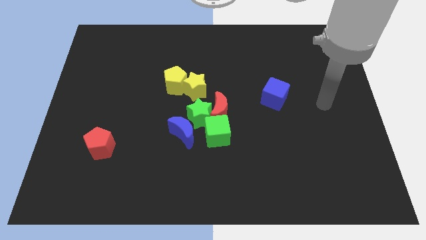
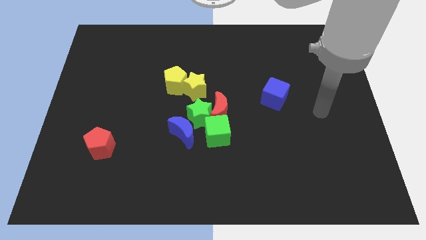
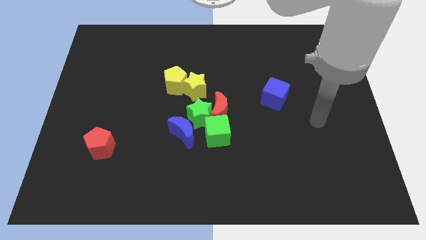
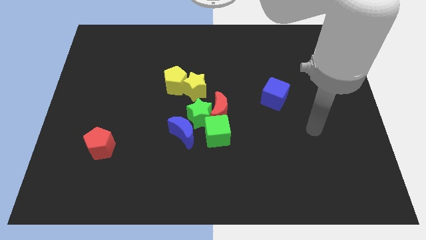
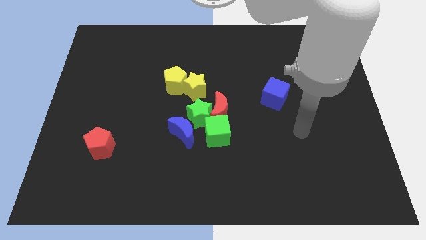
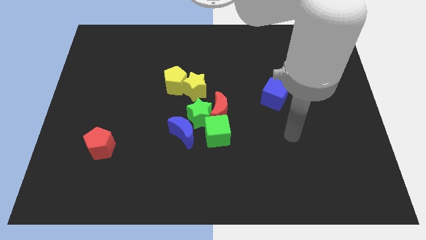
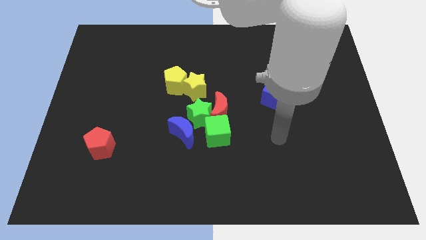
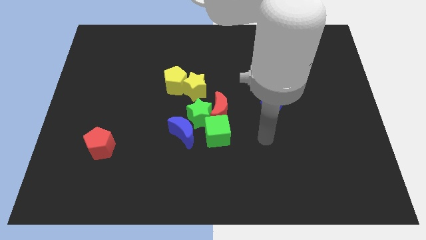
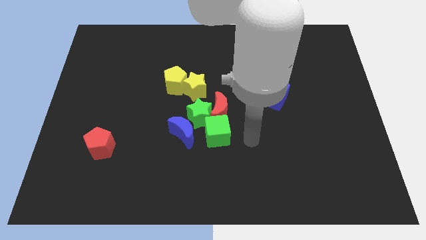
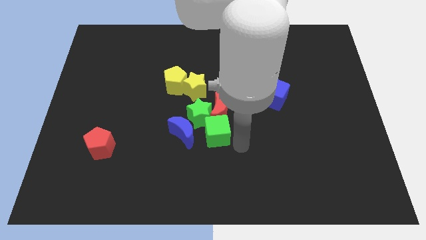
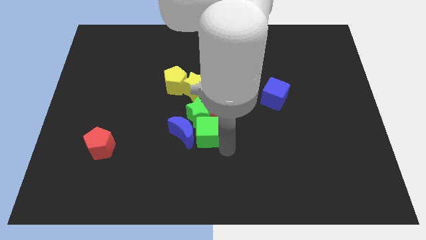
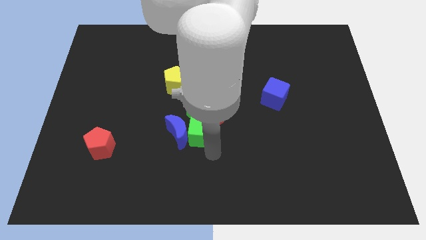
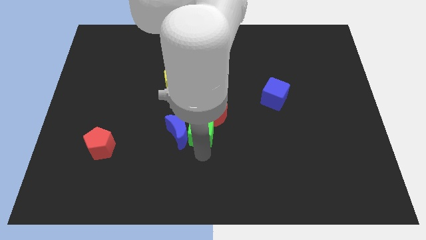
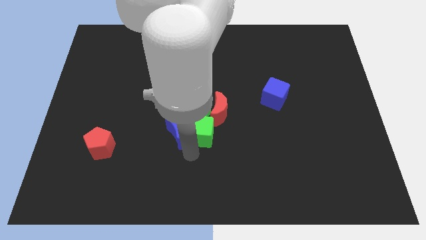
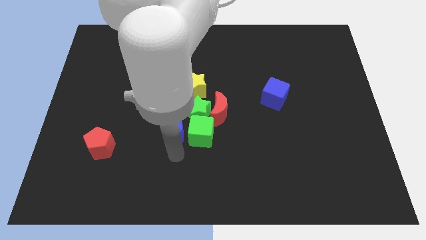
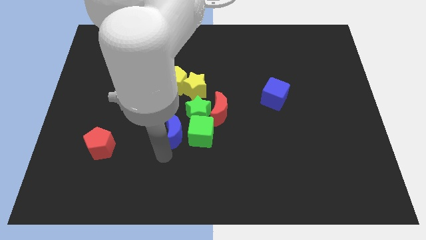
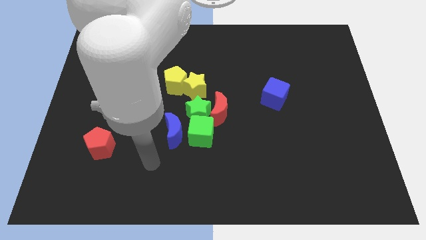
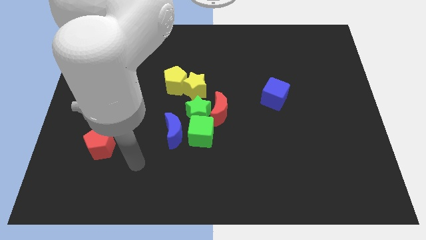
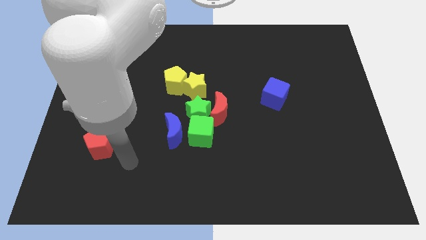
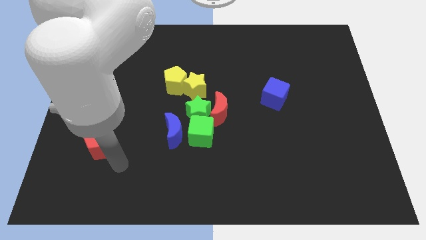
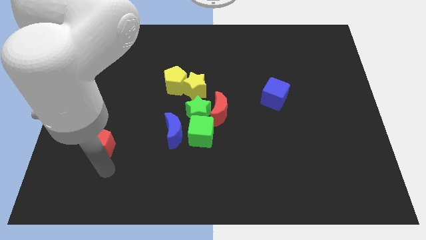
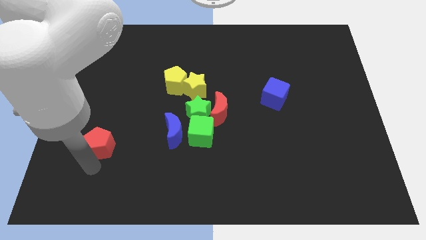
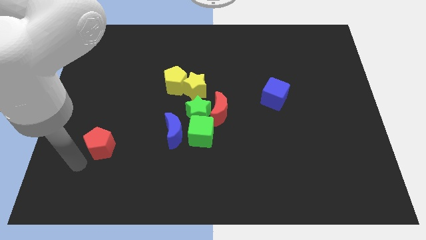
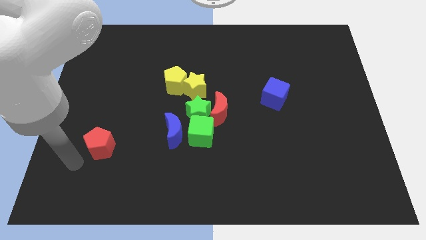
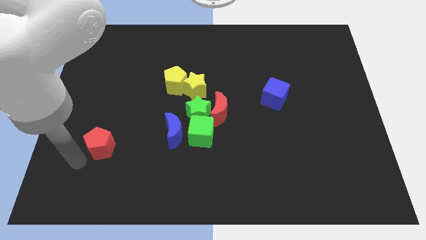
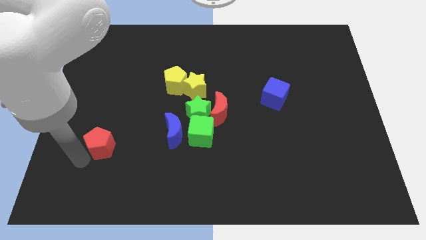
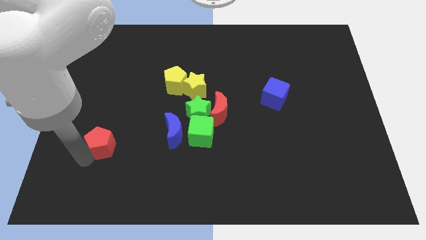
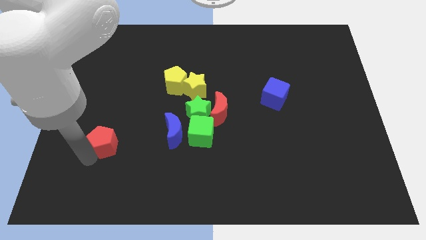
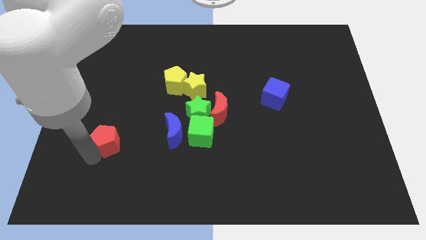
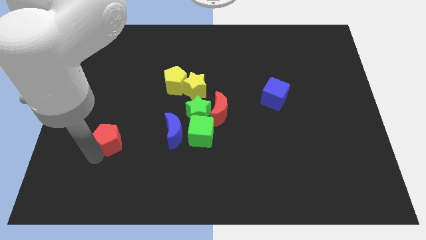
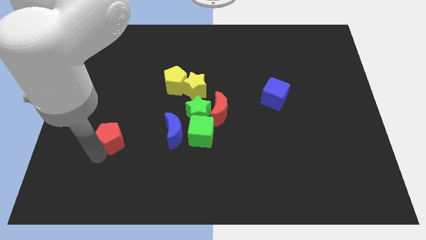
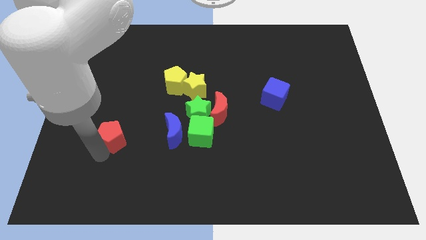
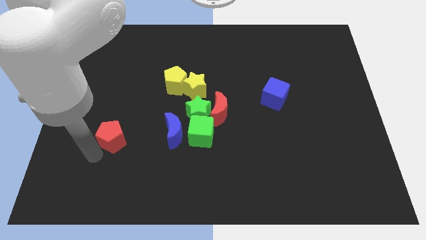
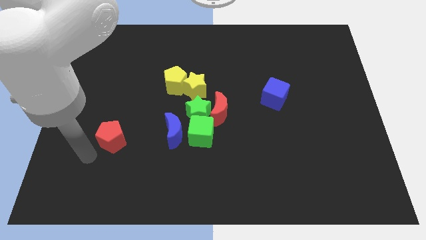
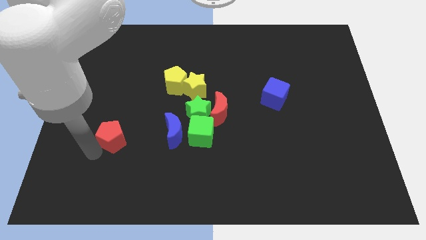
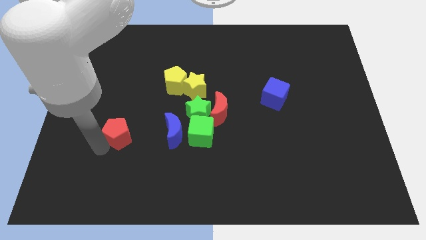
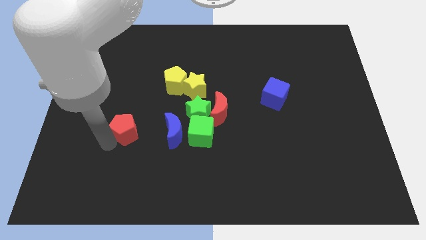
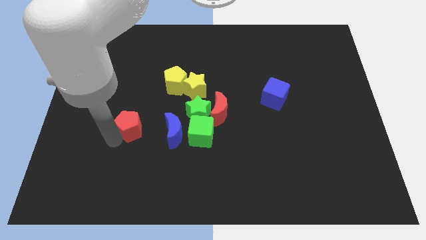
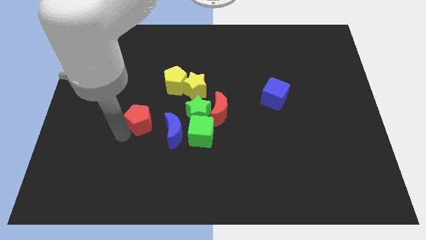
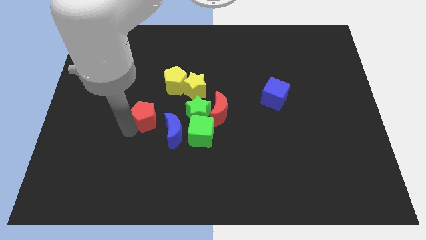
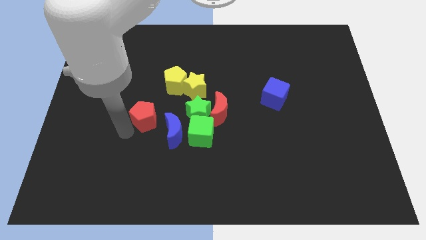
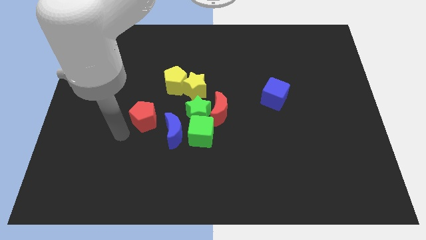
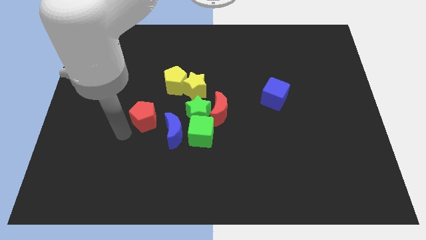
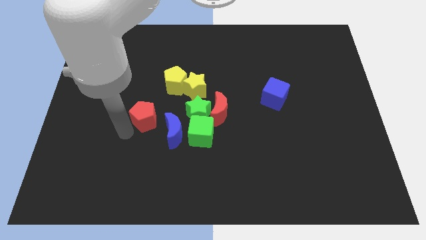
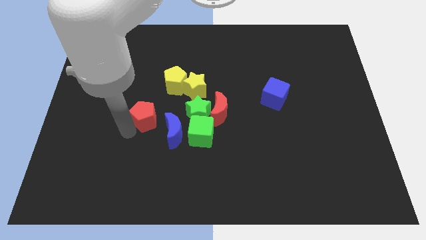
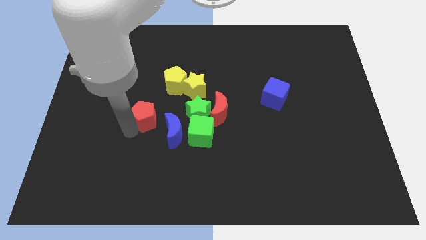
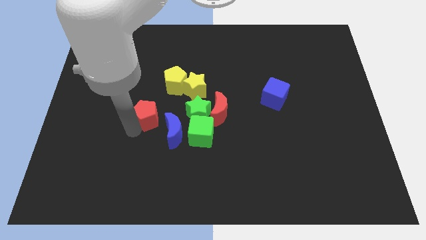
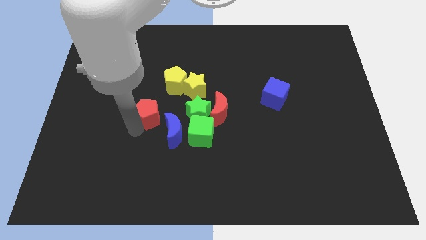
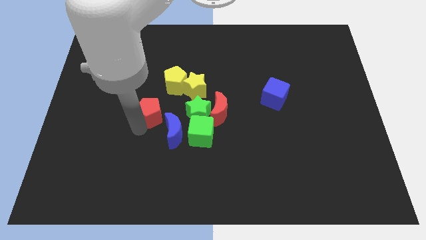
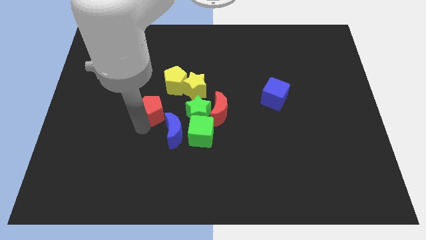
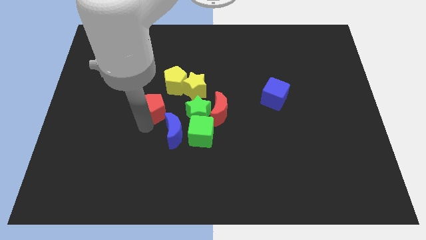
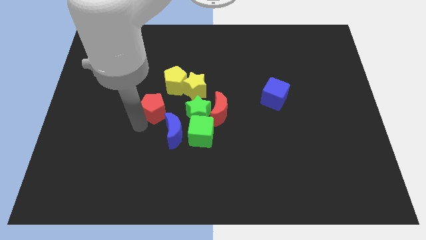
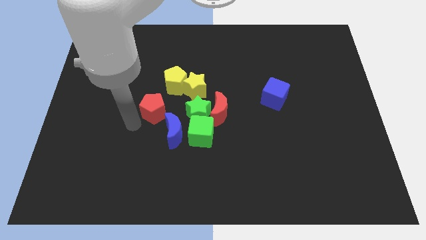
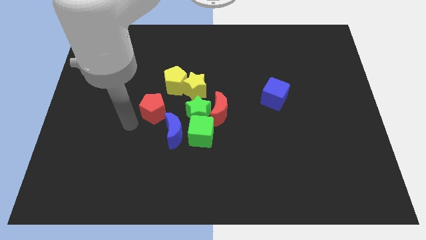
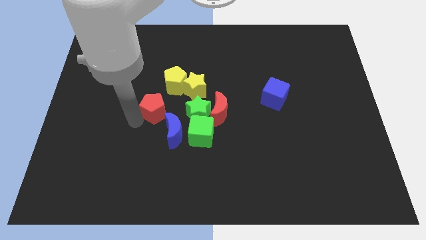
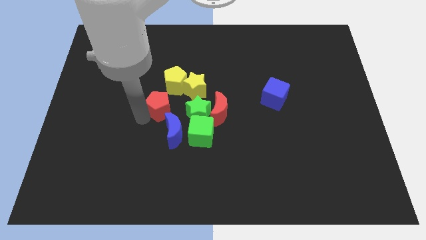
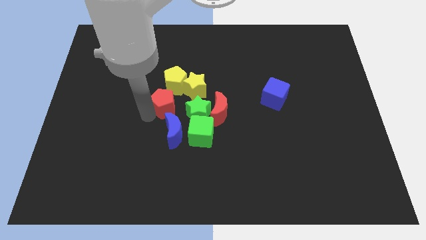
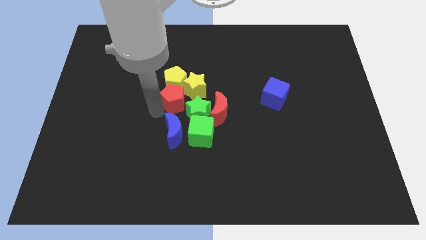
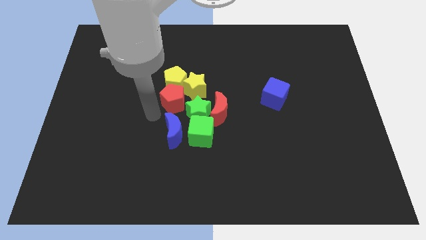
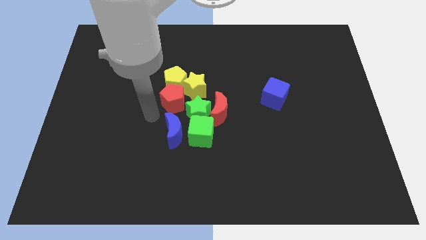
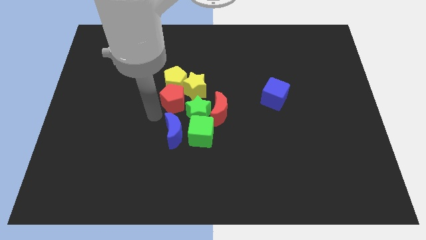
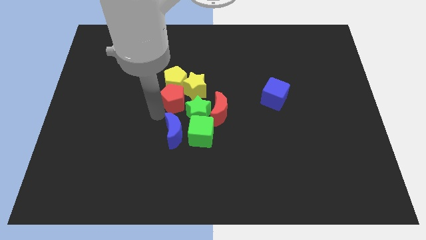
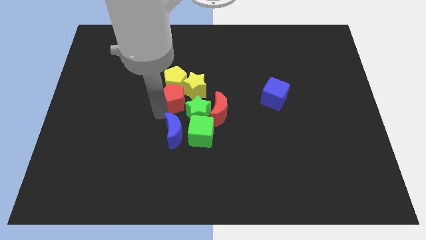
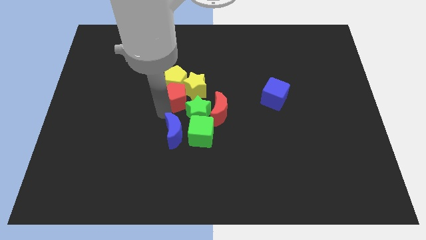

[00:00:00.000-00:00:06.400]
push the red pentagon next to the yellow star

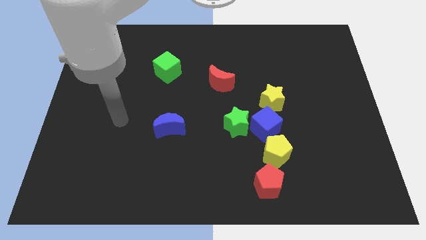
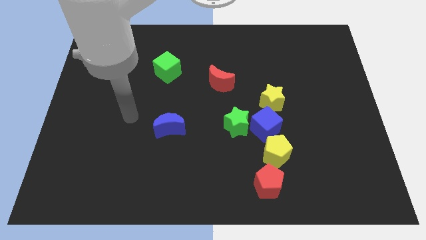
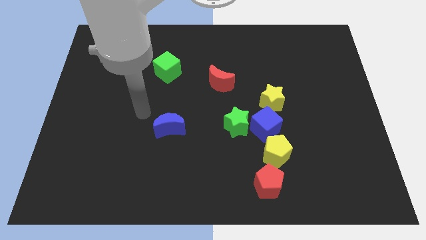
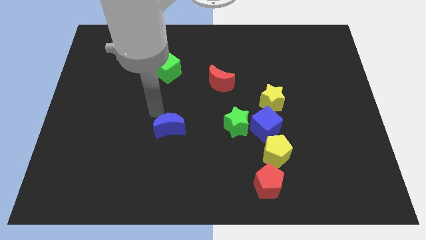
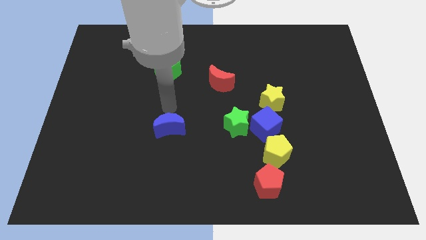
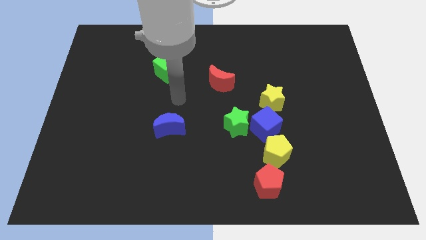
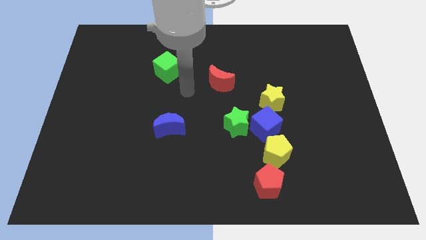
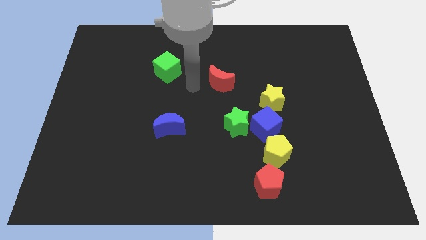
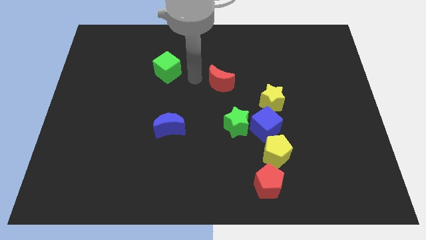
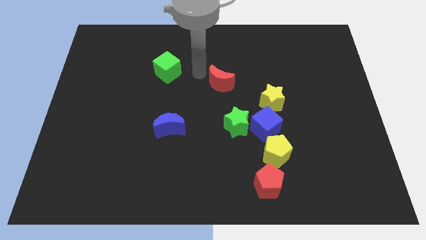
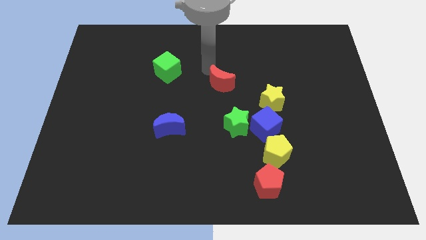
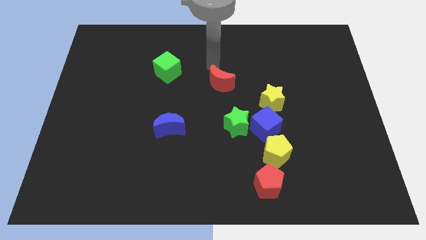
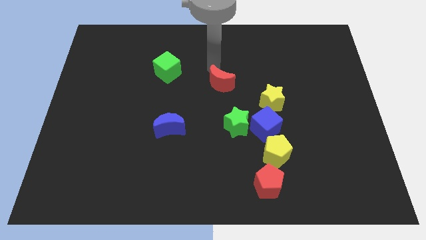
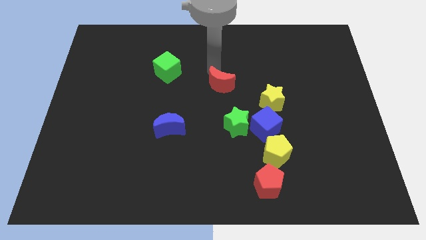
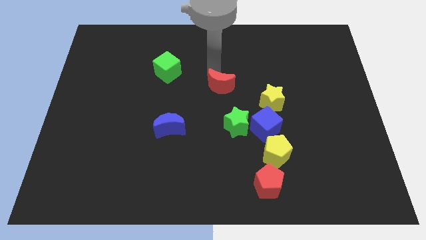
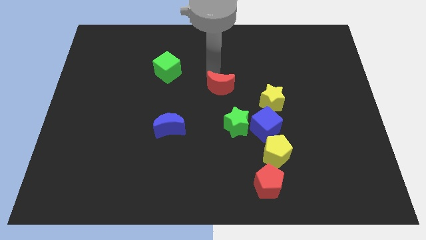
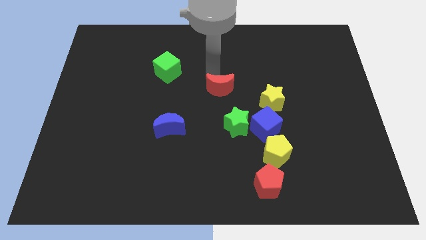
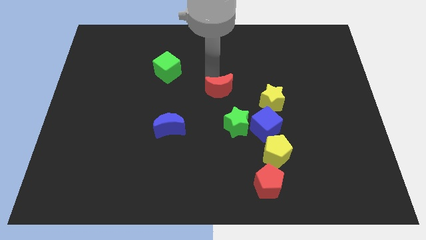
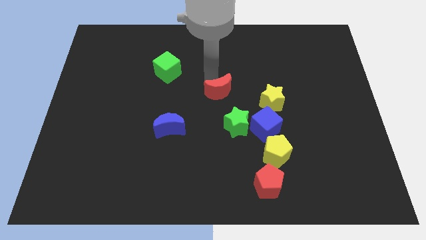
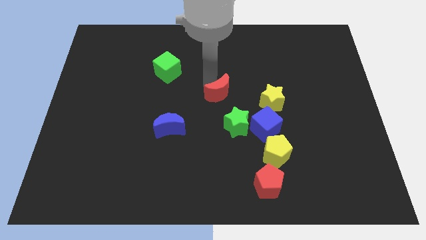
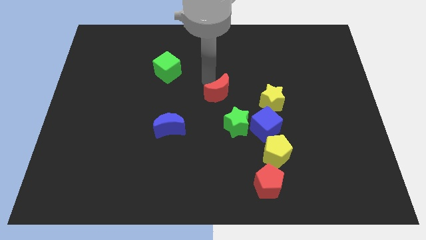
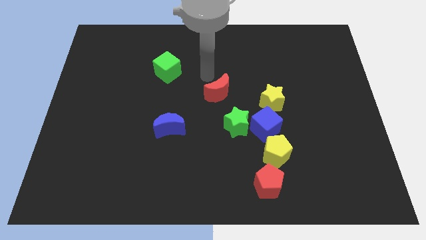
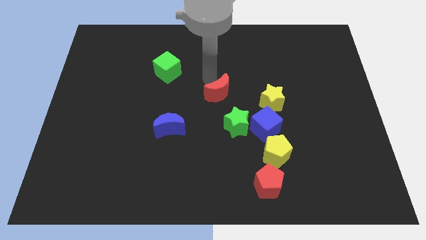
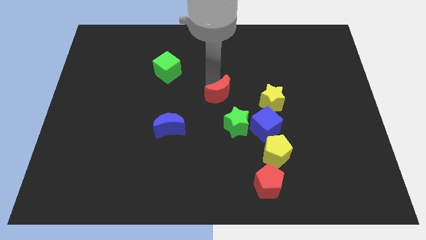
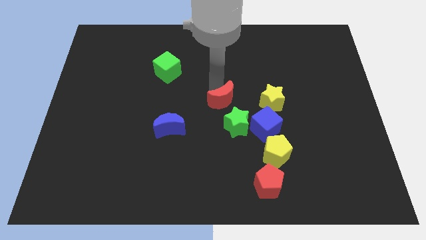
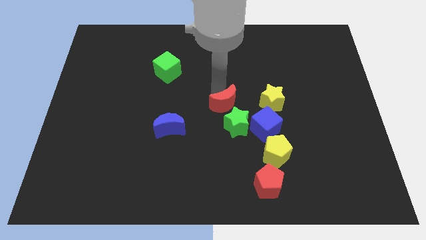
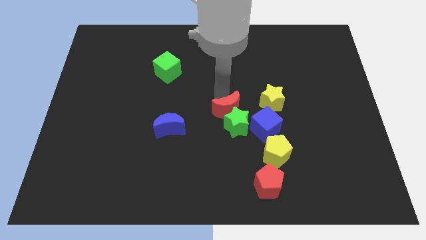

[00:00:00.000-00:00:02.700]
slide the red moon to the green star
